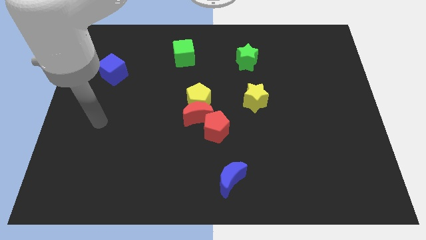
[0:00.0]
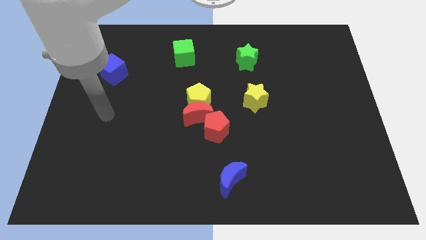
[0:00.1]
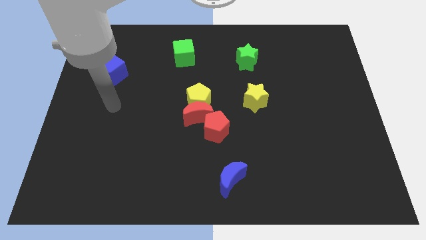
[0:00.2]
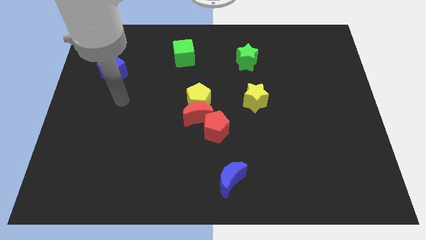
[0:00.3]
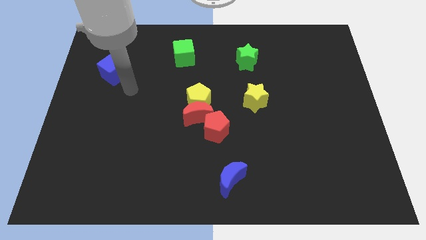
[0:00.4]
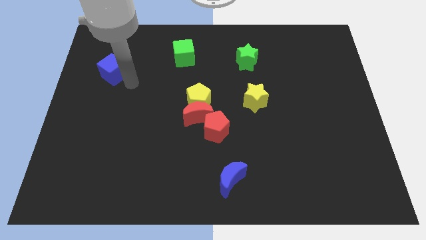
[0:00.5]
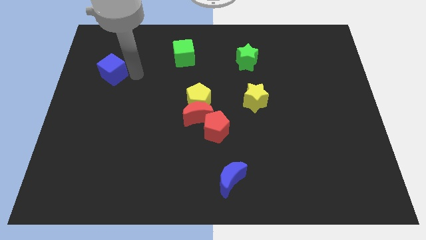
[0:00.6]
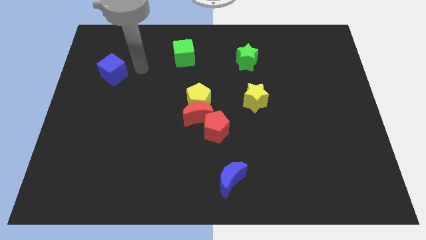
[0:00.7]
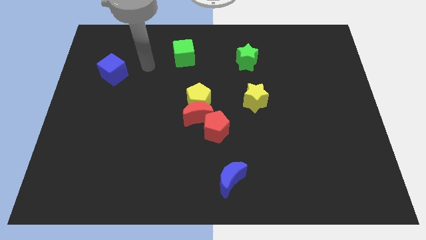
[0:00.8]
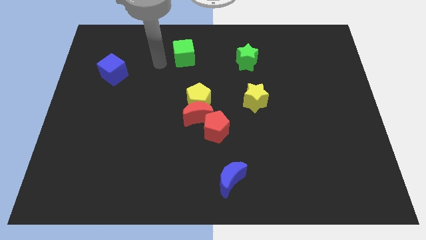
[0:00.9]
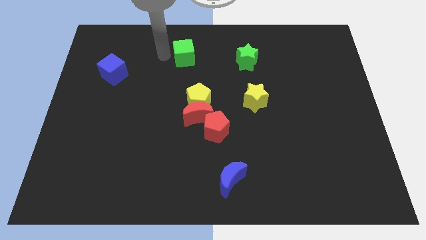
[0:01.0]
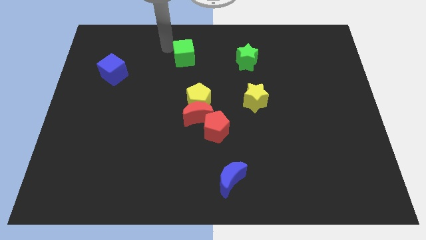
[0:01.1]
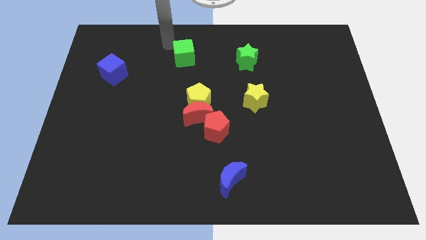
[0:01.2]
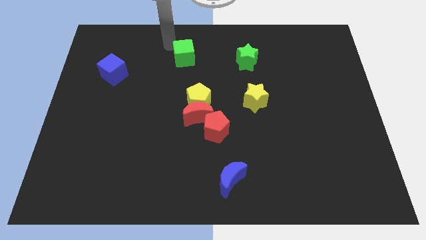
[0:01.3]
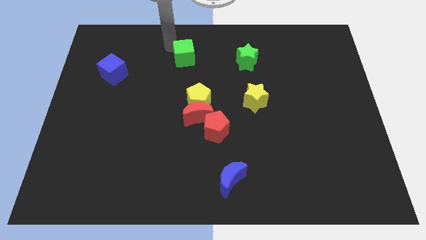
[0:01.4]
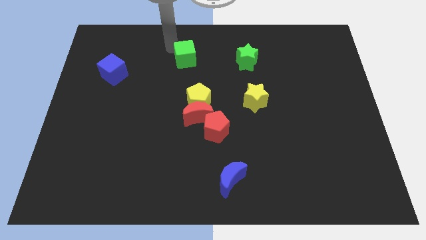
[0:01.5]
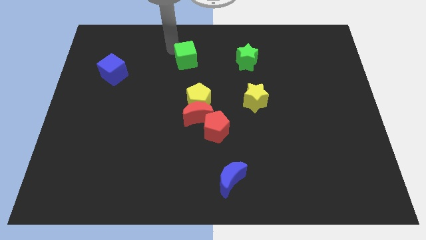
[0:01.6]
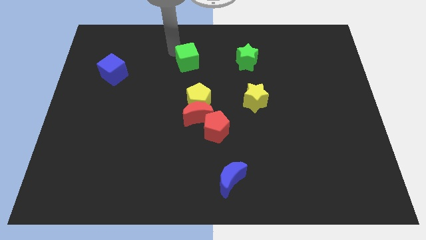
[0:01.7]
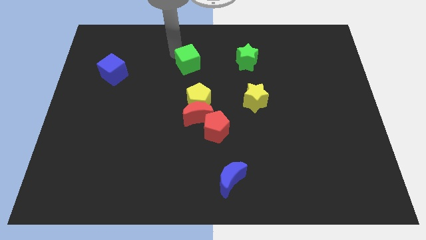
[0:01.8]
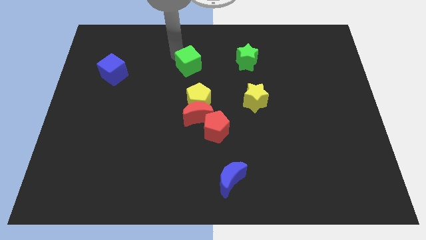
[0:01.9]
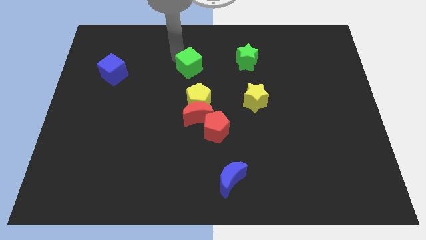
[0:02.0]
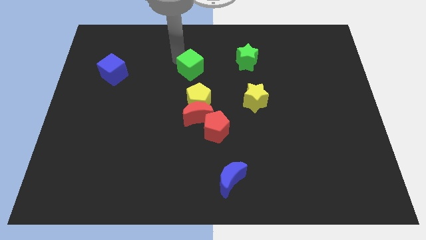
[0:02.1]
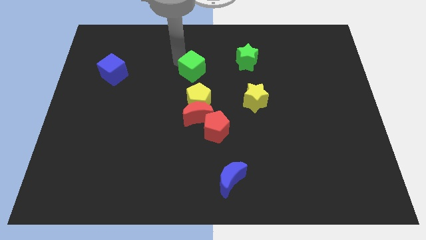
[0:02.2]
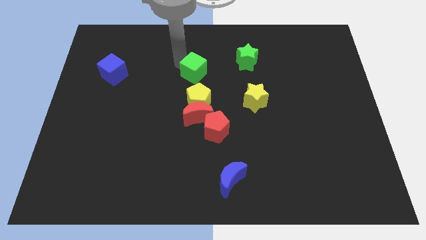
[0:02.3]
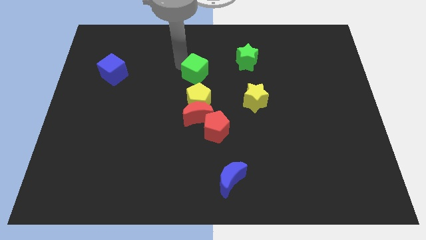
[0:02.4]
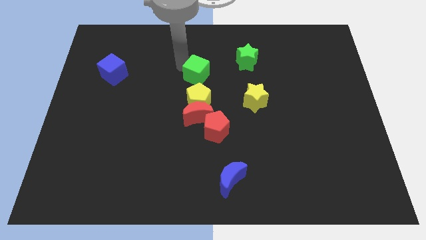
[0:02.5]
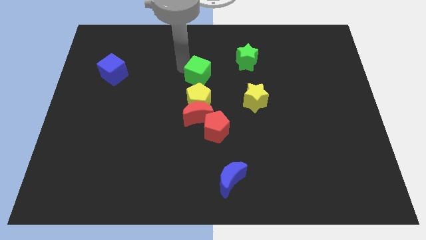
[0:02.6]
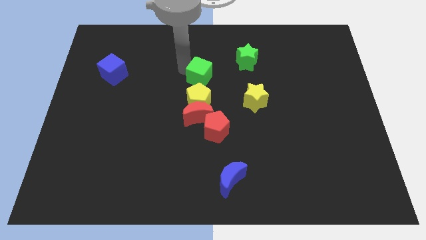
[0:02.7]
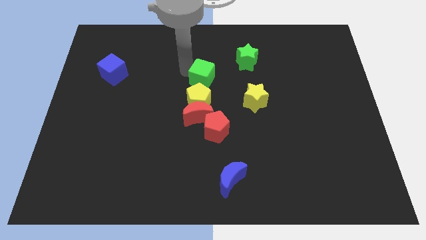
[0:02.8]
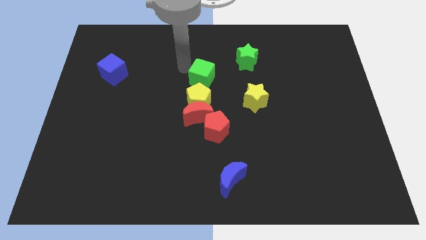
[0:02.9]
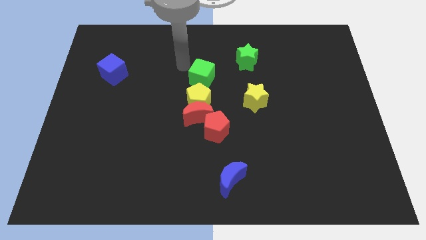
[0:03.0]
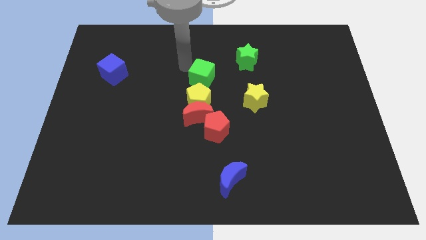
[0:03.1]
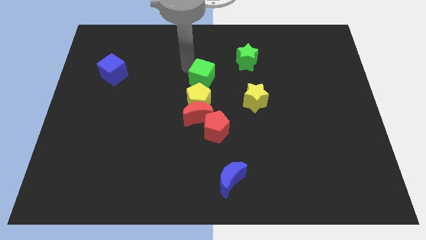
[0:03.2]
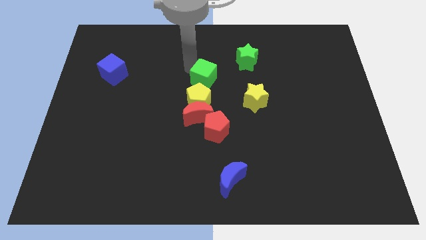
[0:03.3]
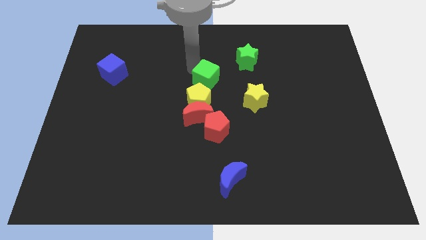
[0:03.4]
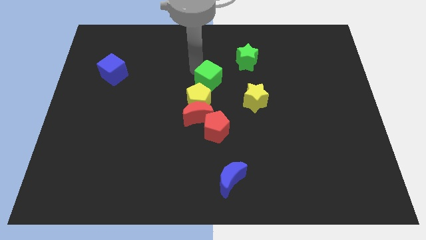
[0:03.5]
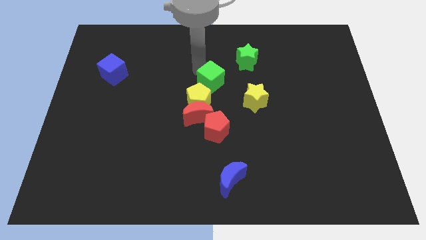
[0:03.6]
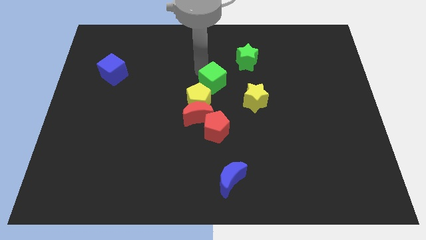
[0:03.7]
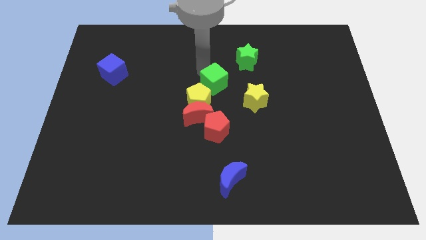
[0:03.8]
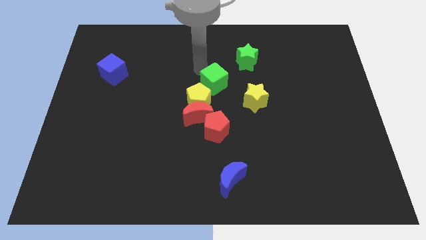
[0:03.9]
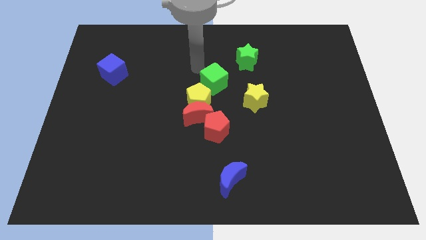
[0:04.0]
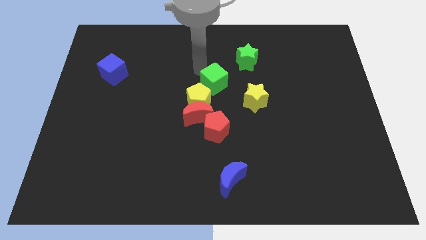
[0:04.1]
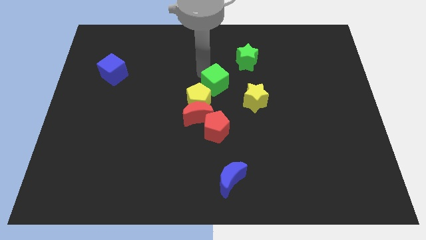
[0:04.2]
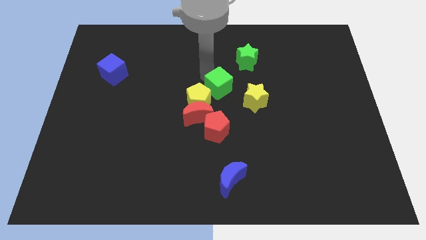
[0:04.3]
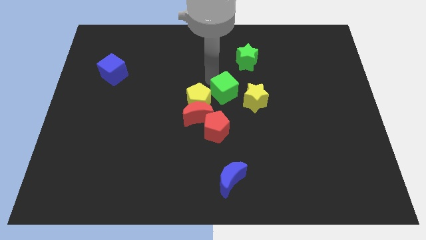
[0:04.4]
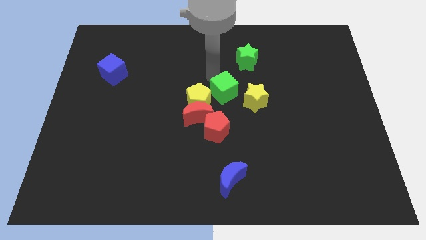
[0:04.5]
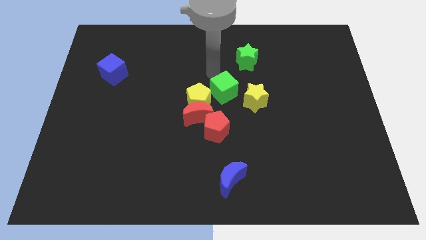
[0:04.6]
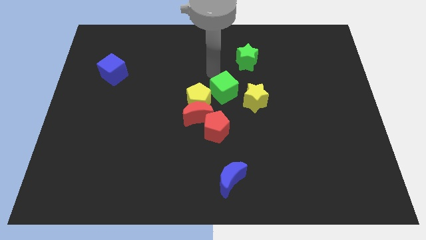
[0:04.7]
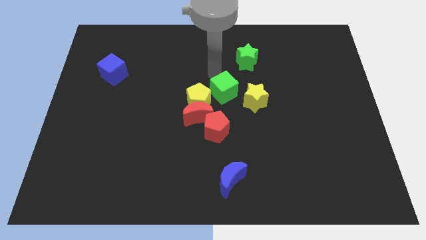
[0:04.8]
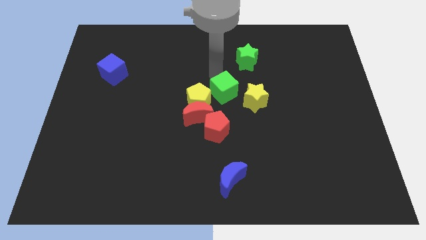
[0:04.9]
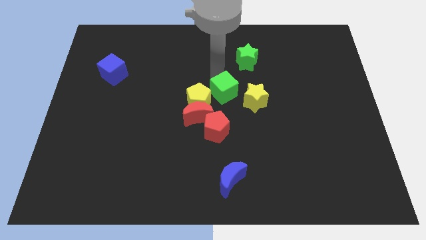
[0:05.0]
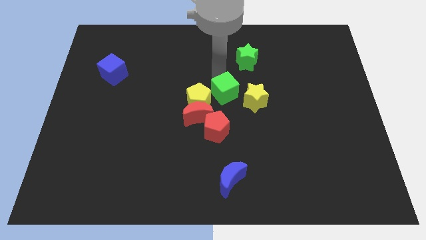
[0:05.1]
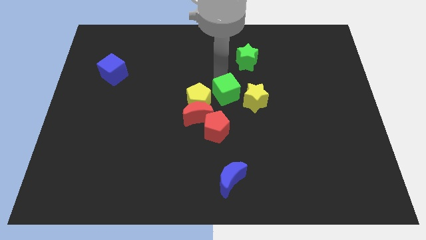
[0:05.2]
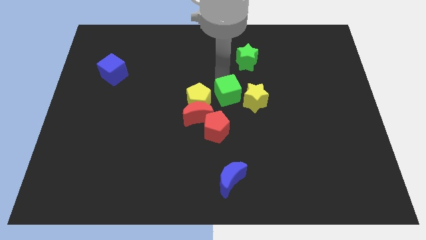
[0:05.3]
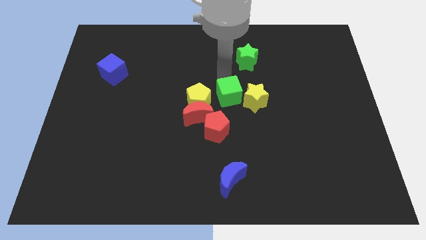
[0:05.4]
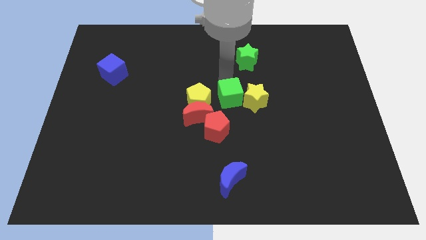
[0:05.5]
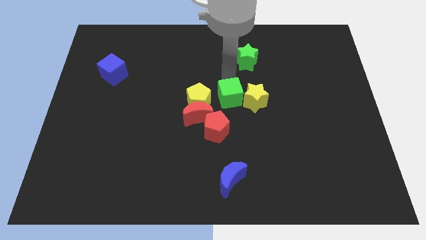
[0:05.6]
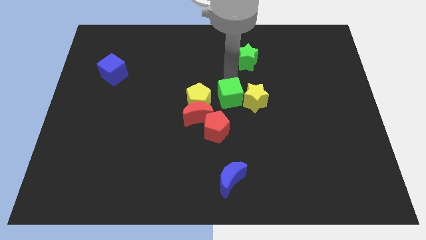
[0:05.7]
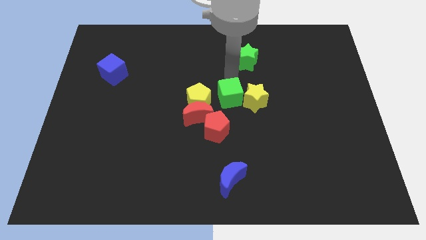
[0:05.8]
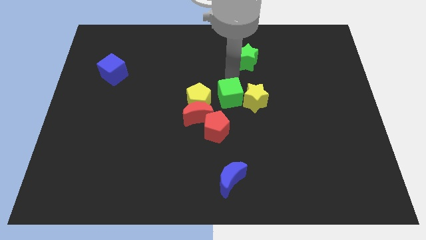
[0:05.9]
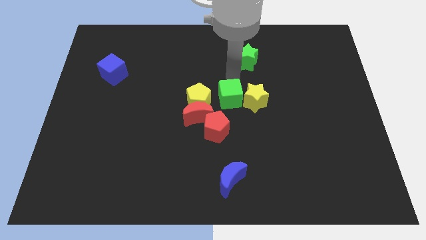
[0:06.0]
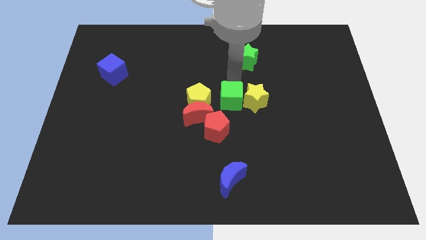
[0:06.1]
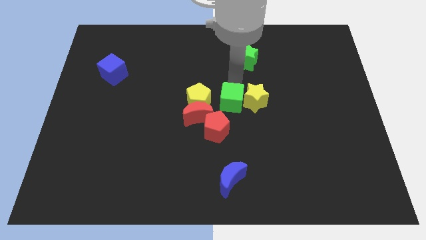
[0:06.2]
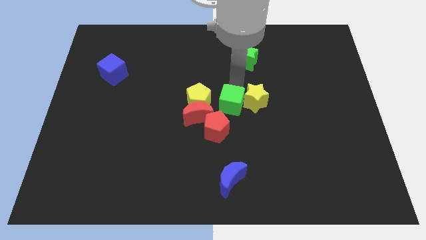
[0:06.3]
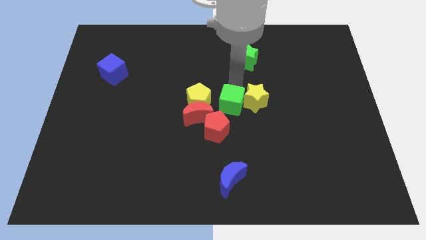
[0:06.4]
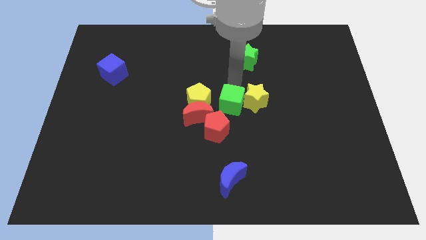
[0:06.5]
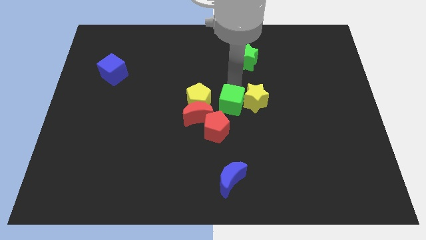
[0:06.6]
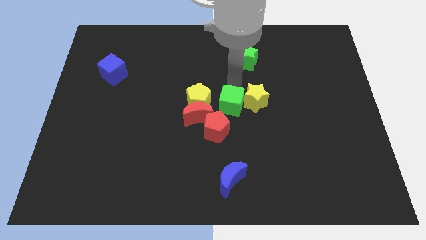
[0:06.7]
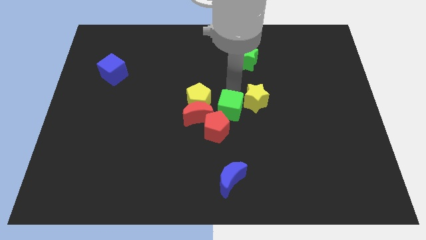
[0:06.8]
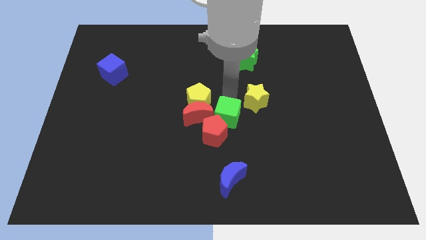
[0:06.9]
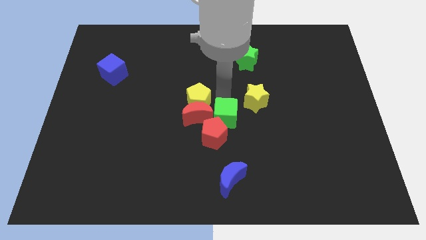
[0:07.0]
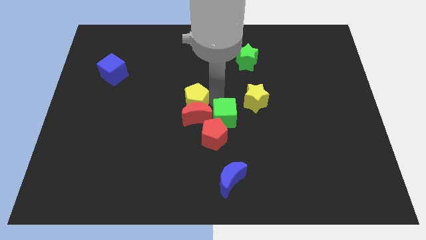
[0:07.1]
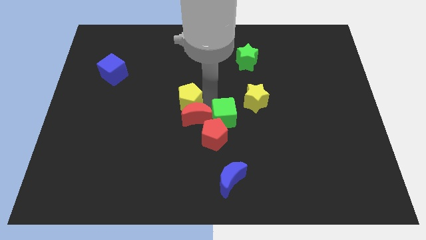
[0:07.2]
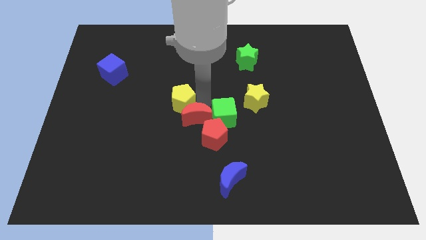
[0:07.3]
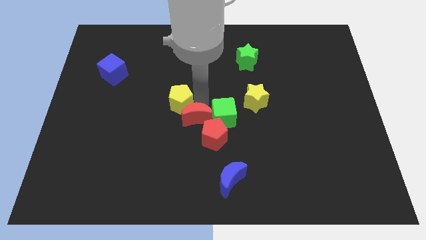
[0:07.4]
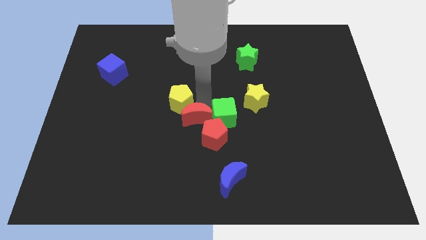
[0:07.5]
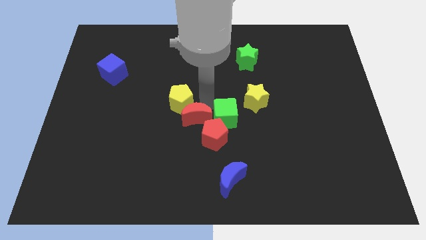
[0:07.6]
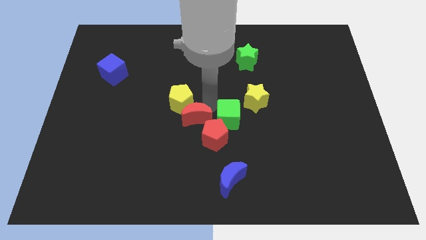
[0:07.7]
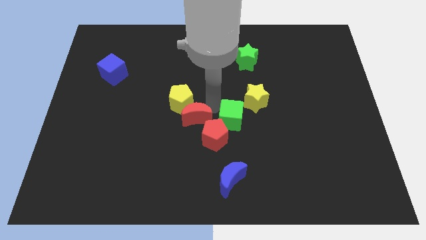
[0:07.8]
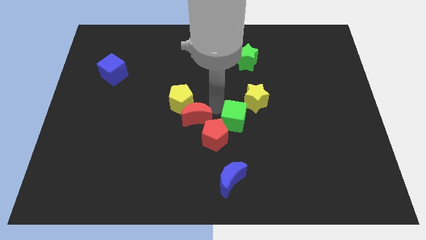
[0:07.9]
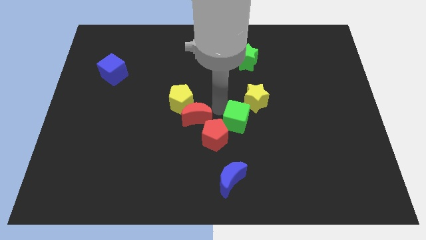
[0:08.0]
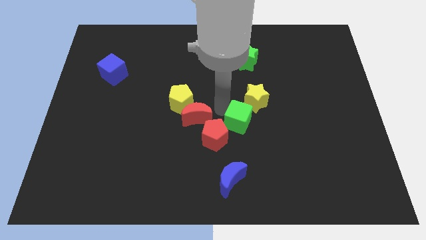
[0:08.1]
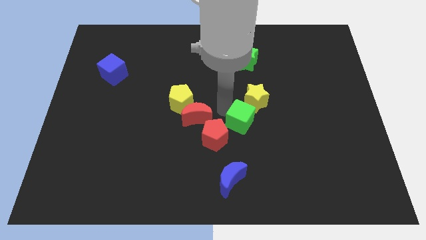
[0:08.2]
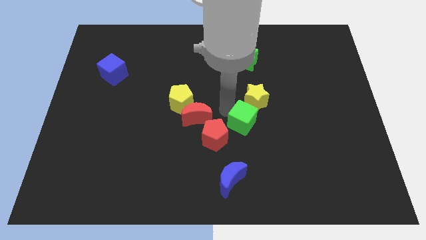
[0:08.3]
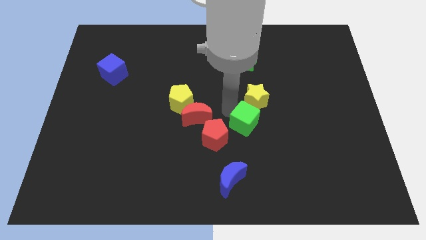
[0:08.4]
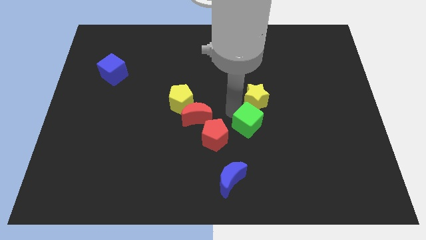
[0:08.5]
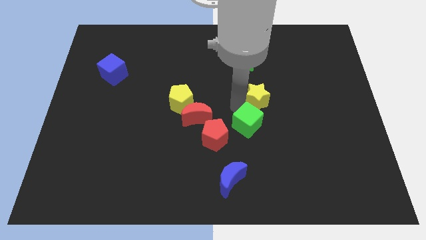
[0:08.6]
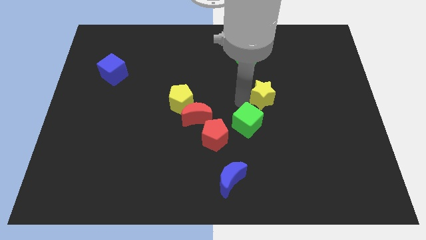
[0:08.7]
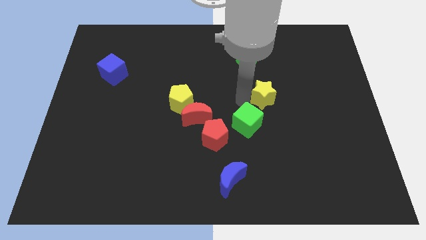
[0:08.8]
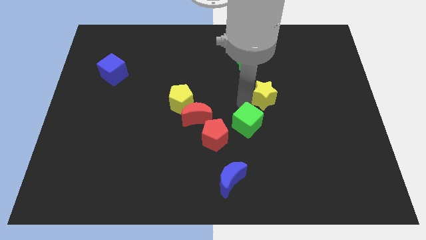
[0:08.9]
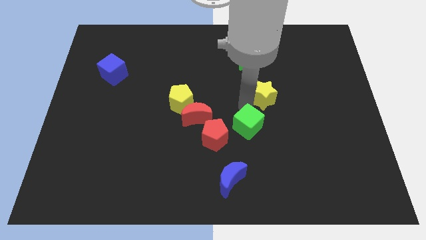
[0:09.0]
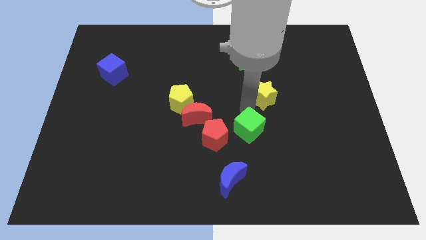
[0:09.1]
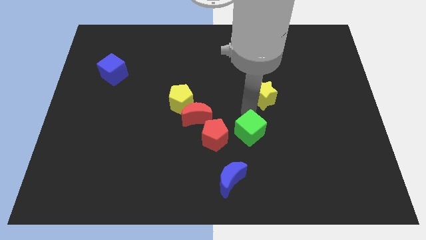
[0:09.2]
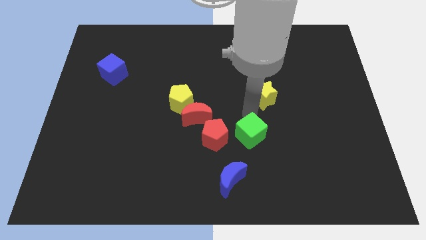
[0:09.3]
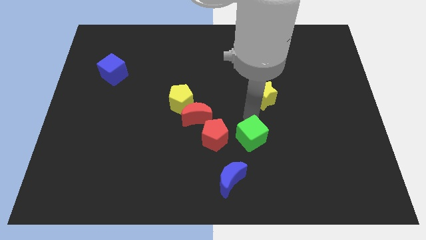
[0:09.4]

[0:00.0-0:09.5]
move the green cube to the top right of the blue moon
